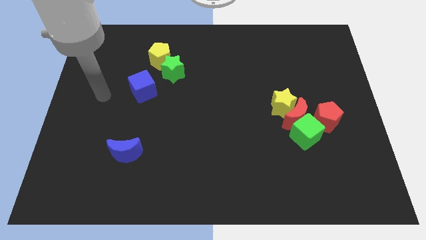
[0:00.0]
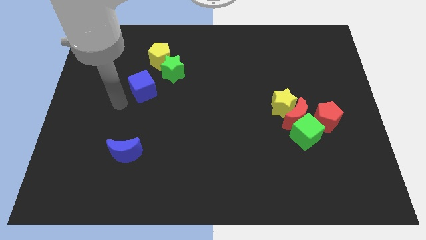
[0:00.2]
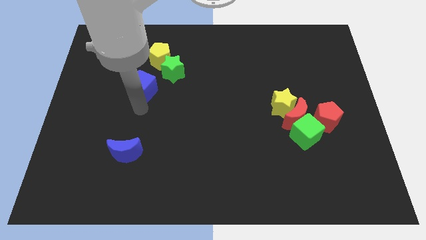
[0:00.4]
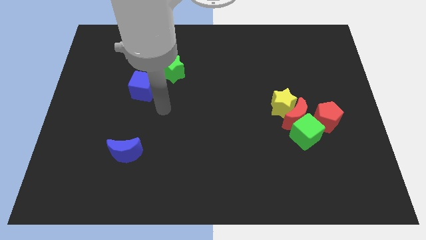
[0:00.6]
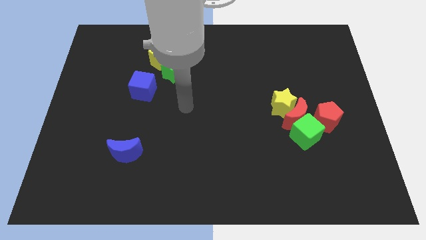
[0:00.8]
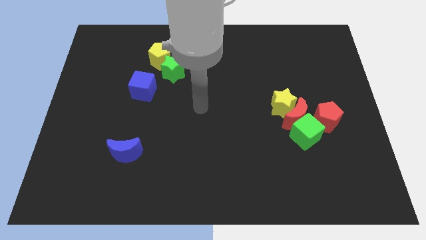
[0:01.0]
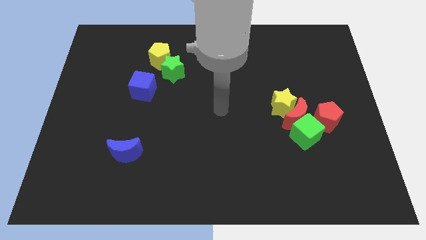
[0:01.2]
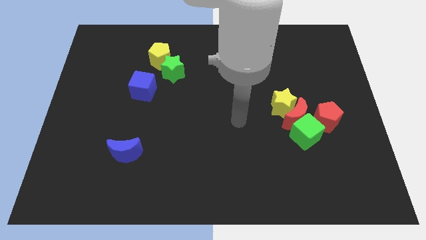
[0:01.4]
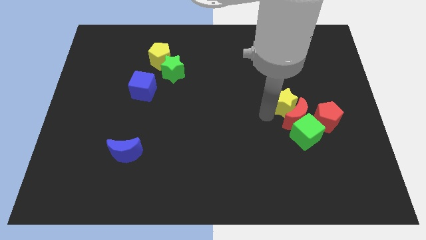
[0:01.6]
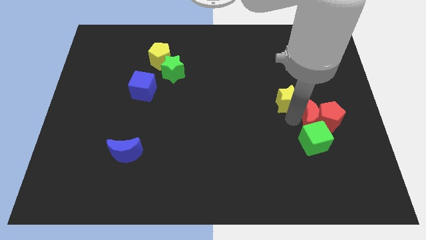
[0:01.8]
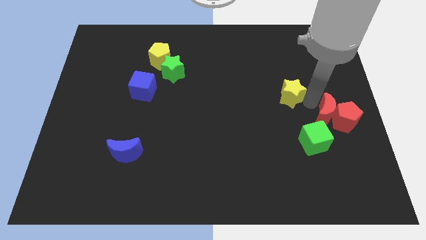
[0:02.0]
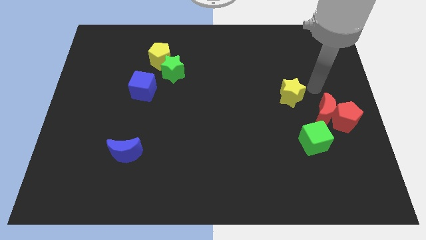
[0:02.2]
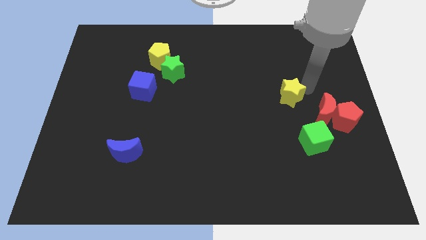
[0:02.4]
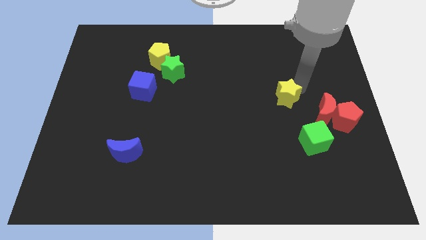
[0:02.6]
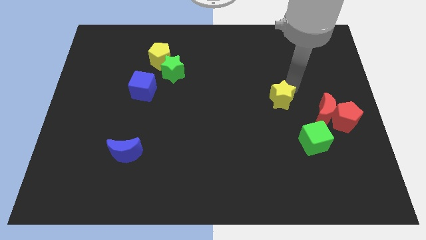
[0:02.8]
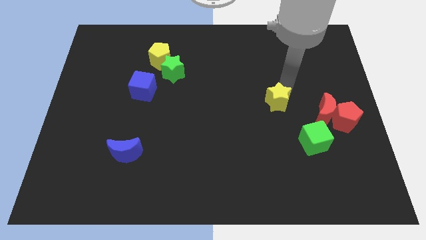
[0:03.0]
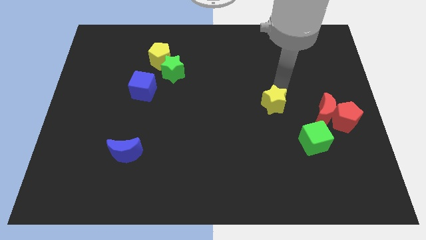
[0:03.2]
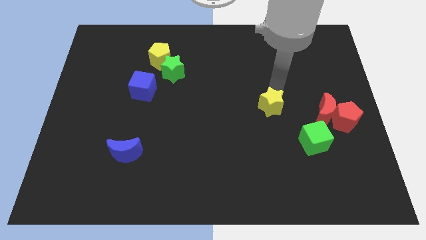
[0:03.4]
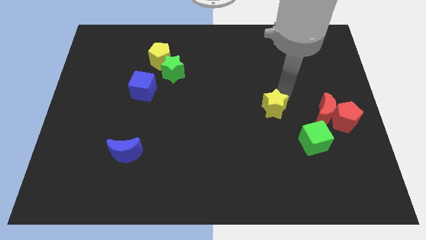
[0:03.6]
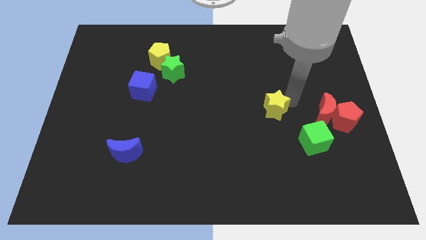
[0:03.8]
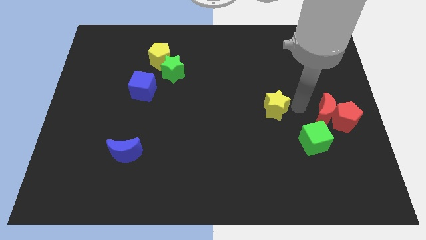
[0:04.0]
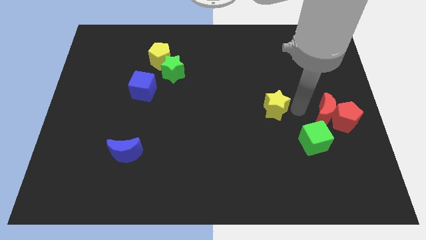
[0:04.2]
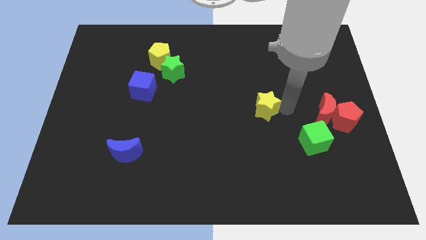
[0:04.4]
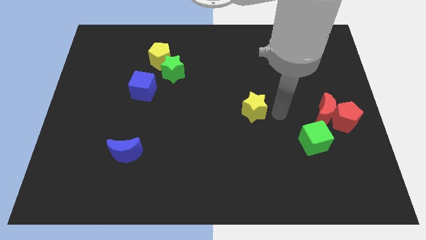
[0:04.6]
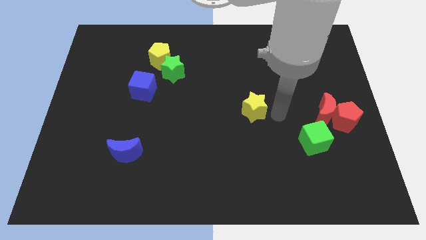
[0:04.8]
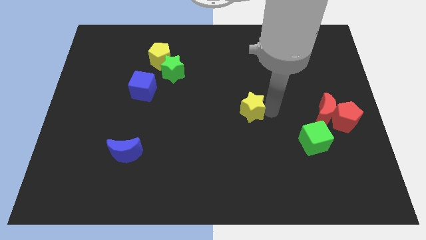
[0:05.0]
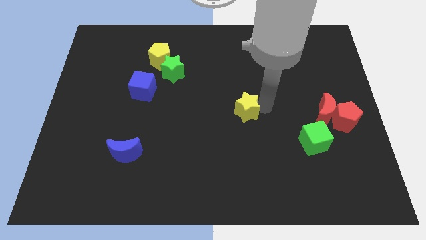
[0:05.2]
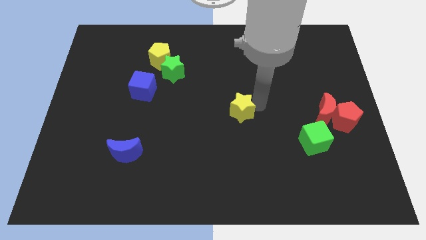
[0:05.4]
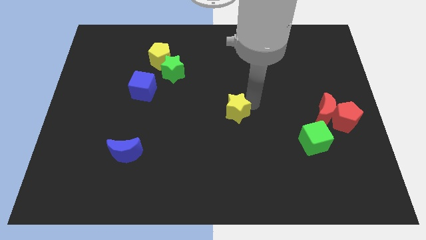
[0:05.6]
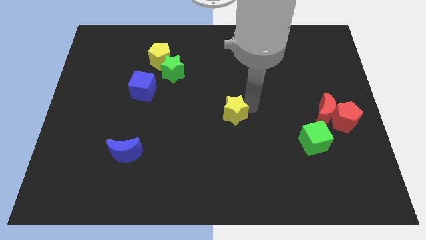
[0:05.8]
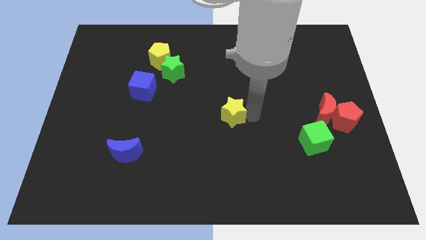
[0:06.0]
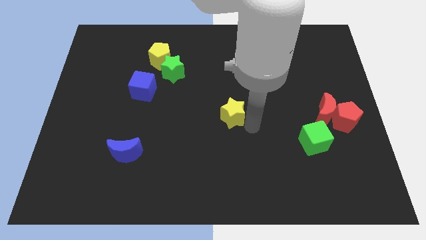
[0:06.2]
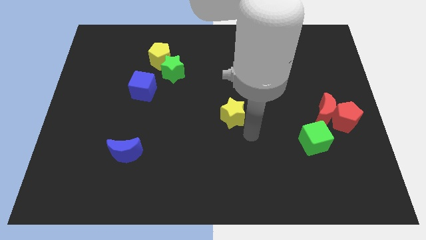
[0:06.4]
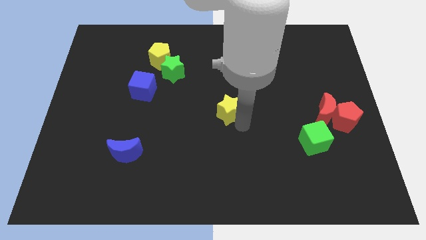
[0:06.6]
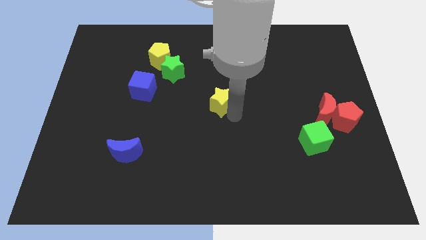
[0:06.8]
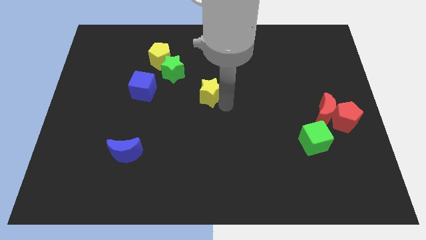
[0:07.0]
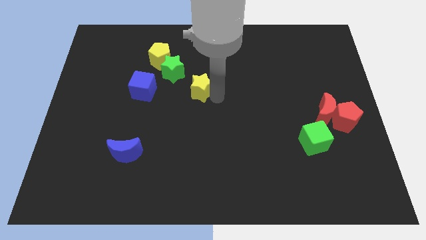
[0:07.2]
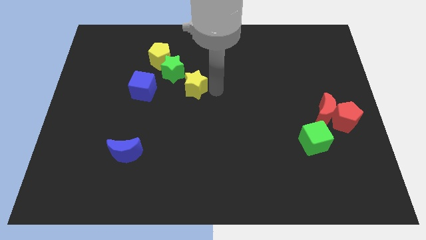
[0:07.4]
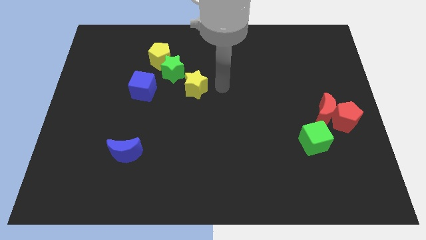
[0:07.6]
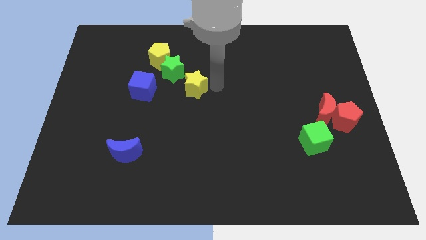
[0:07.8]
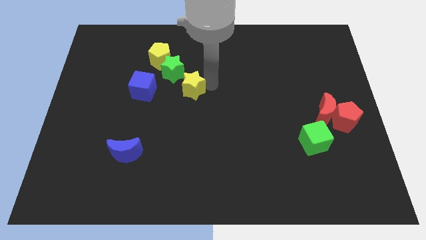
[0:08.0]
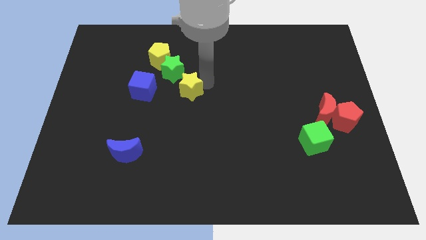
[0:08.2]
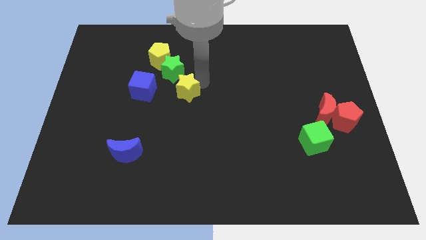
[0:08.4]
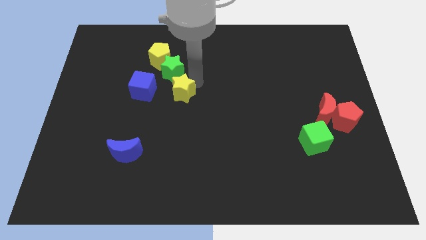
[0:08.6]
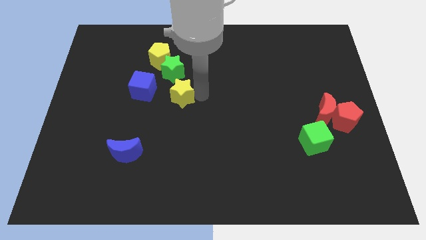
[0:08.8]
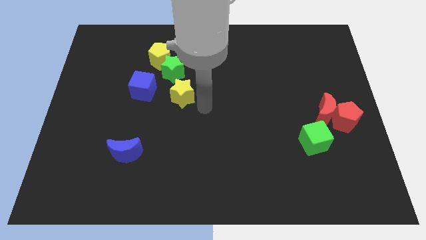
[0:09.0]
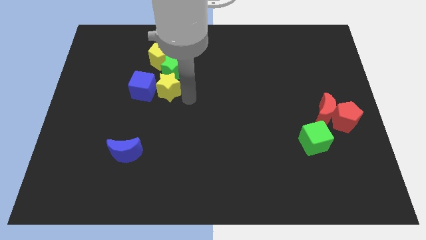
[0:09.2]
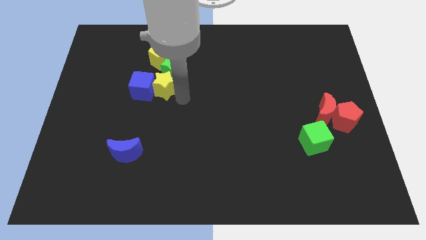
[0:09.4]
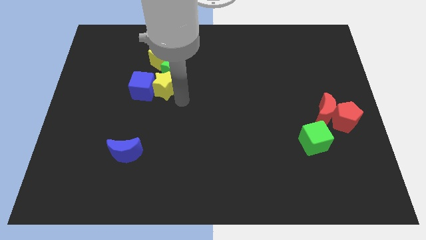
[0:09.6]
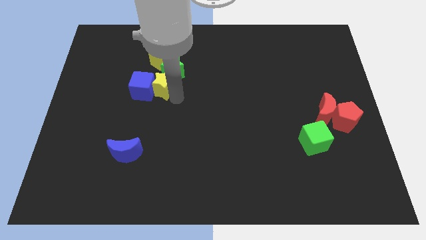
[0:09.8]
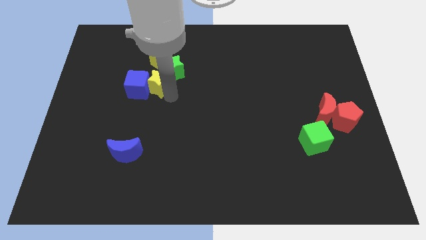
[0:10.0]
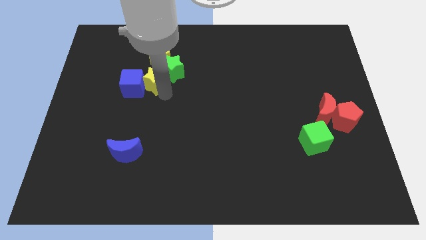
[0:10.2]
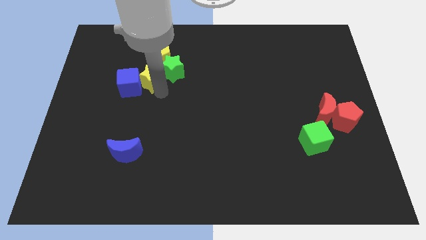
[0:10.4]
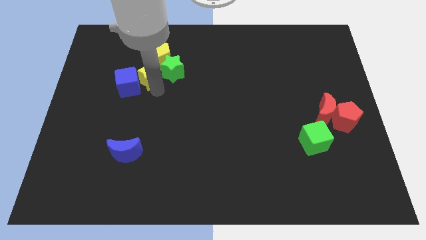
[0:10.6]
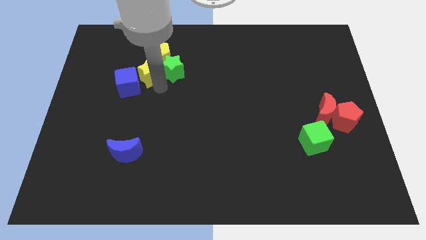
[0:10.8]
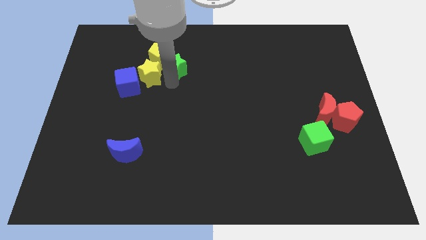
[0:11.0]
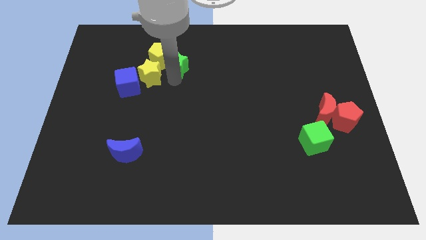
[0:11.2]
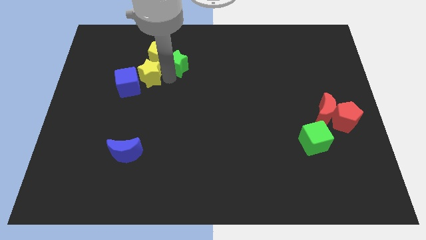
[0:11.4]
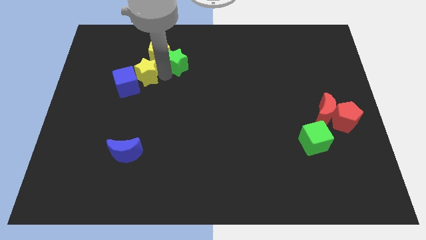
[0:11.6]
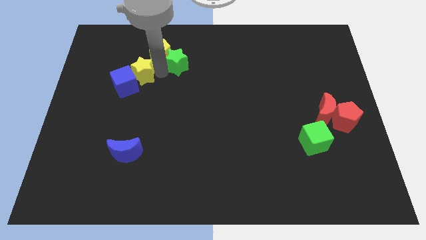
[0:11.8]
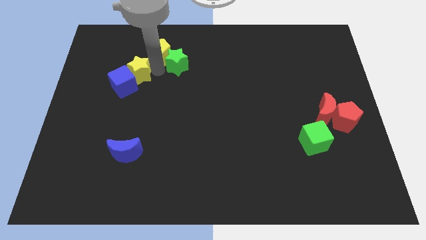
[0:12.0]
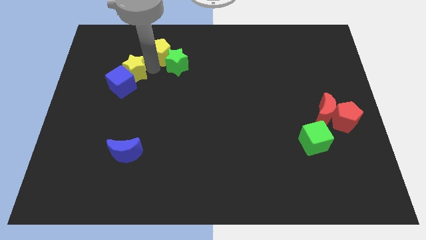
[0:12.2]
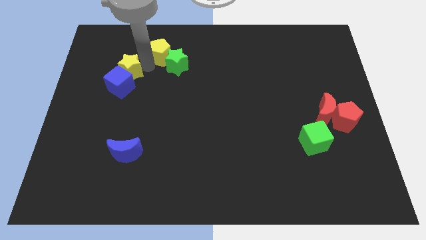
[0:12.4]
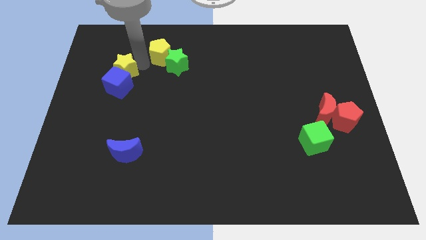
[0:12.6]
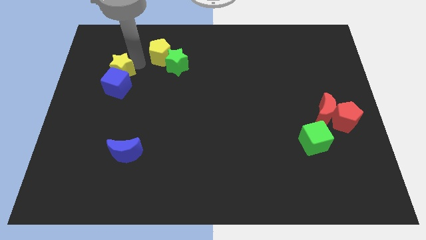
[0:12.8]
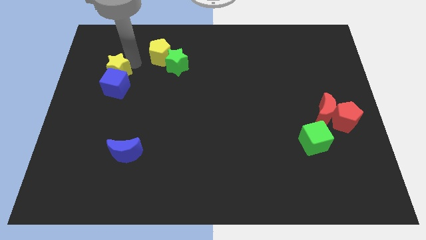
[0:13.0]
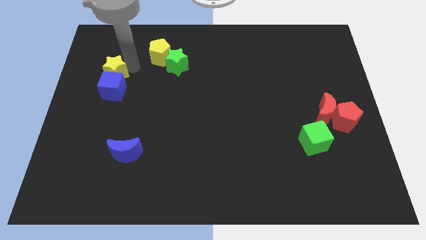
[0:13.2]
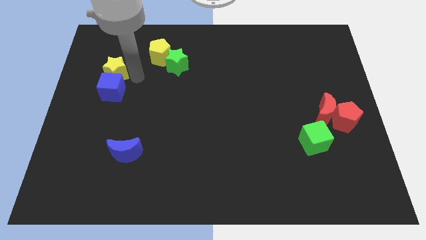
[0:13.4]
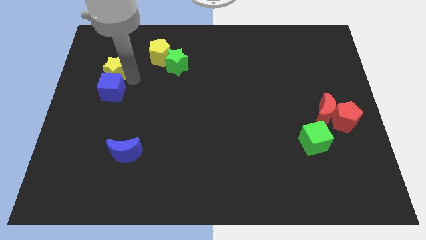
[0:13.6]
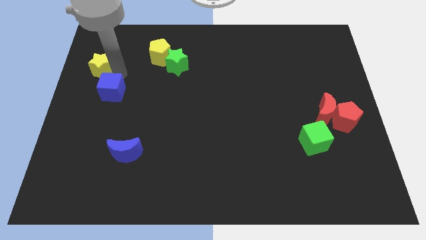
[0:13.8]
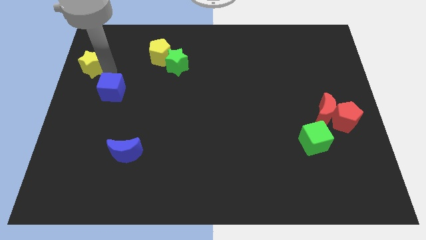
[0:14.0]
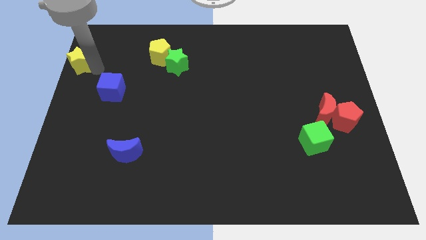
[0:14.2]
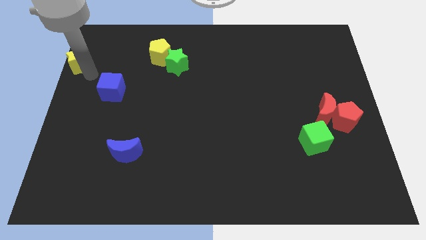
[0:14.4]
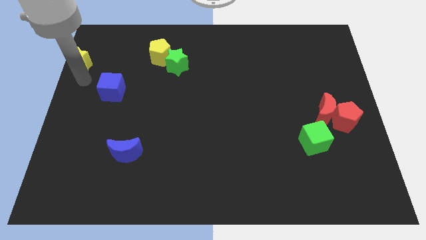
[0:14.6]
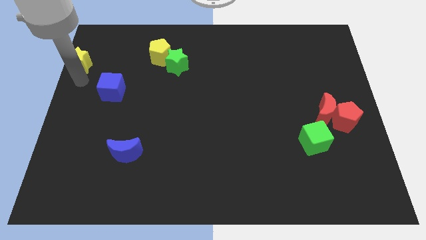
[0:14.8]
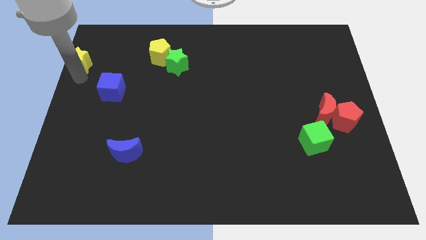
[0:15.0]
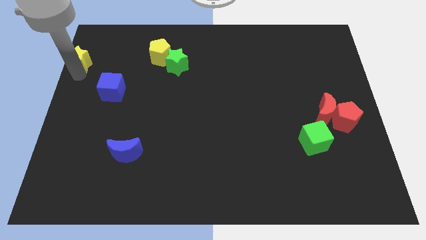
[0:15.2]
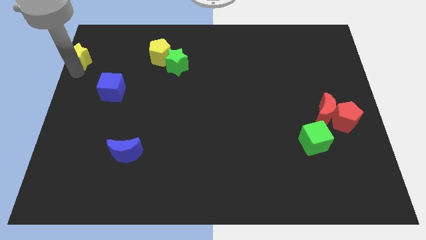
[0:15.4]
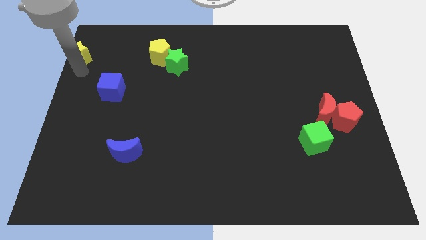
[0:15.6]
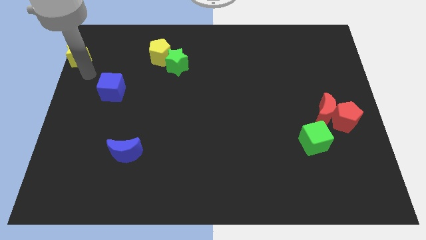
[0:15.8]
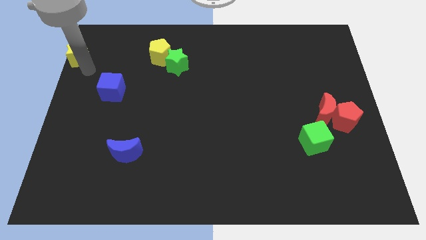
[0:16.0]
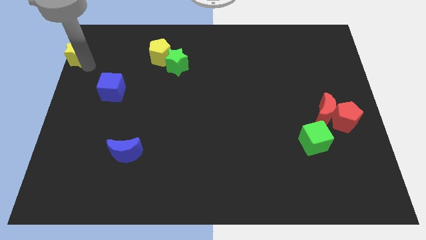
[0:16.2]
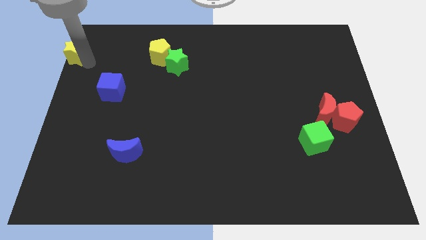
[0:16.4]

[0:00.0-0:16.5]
move the yellow star to the upper left corner
